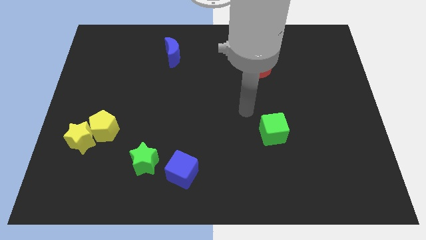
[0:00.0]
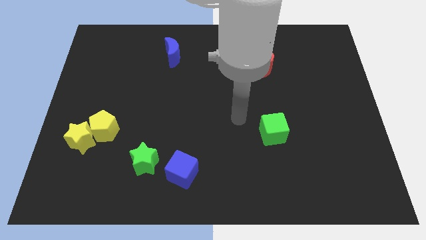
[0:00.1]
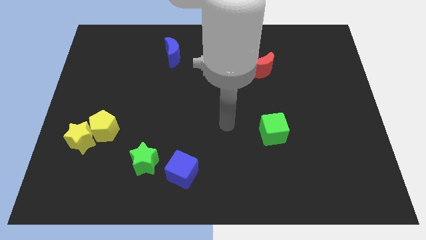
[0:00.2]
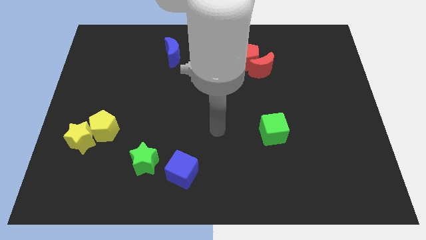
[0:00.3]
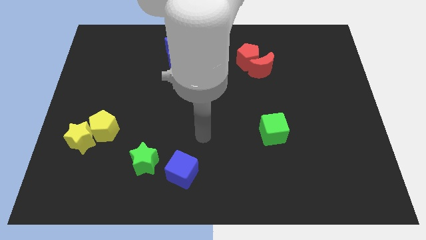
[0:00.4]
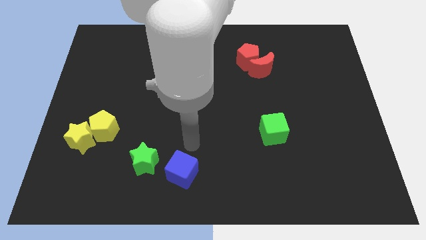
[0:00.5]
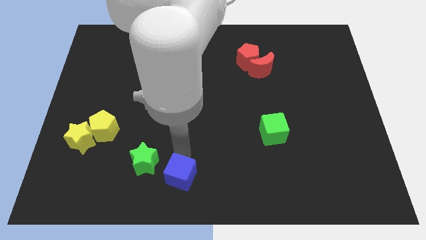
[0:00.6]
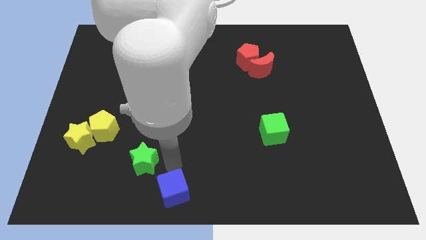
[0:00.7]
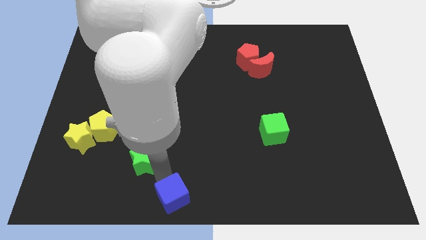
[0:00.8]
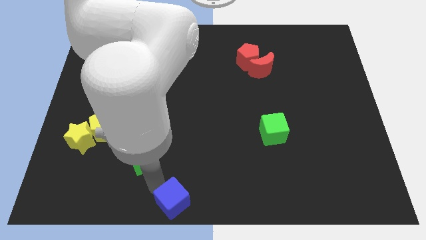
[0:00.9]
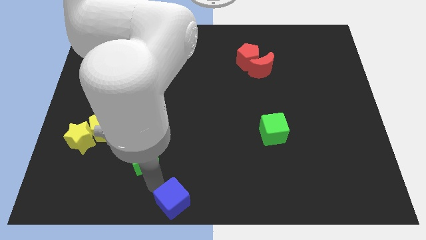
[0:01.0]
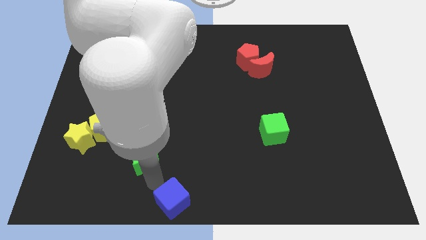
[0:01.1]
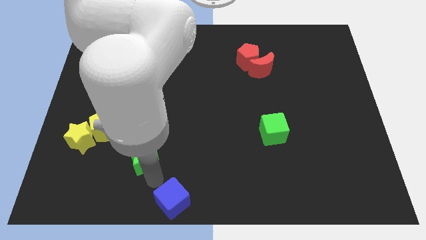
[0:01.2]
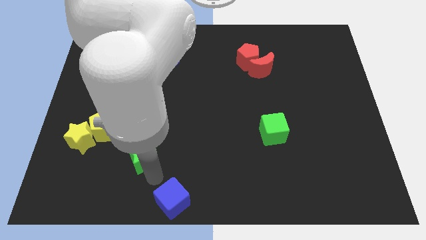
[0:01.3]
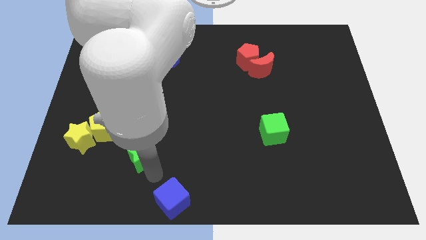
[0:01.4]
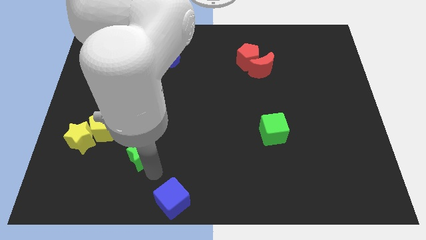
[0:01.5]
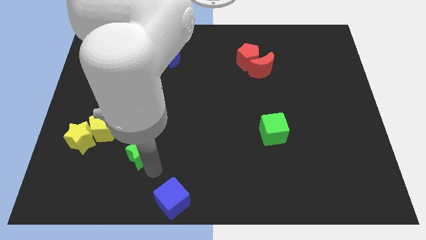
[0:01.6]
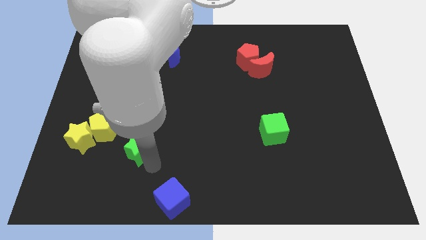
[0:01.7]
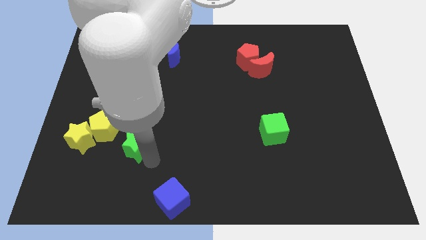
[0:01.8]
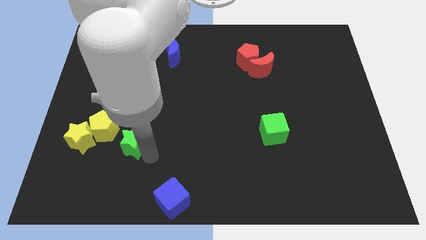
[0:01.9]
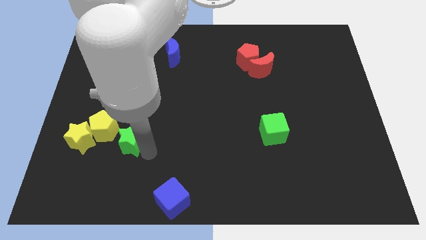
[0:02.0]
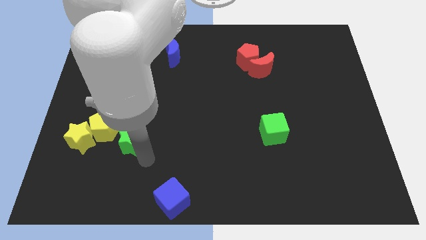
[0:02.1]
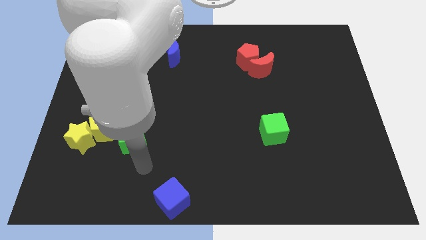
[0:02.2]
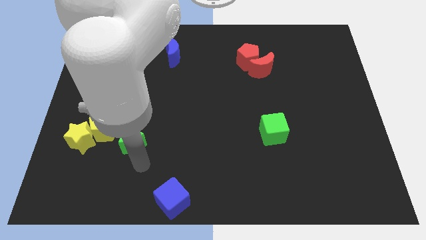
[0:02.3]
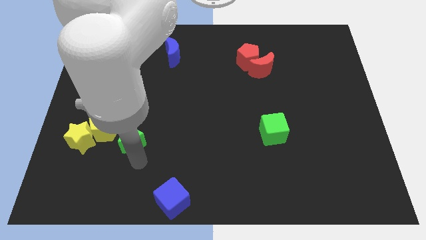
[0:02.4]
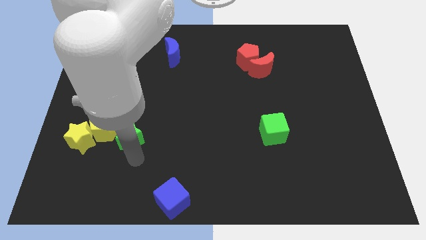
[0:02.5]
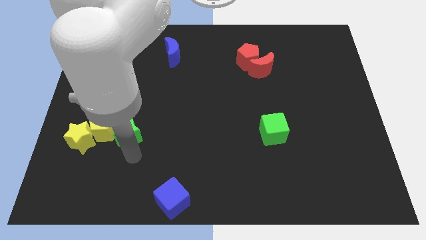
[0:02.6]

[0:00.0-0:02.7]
slightly slide the green star up and to the left diagonally

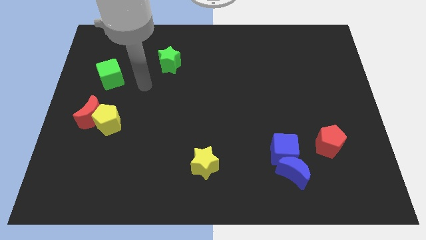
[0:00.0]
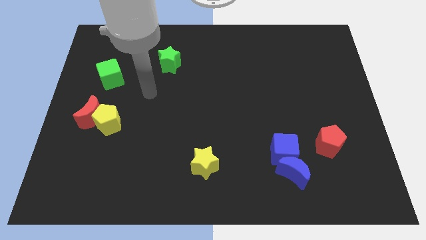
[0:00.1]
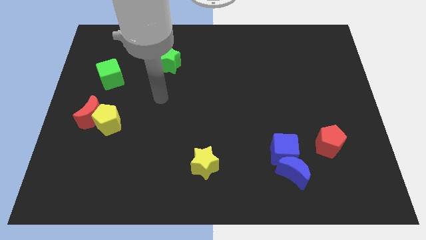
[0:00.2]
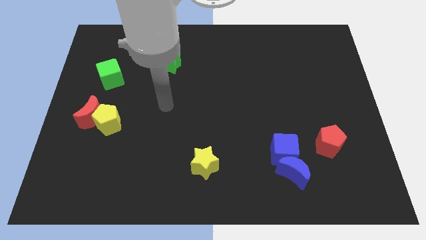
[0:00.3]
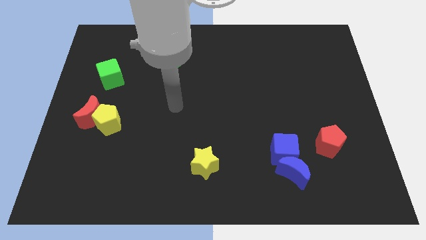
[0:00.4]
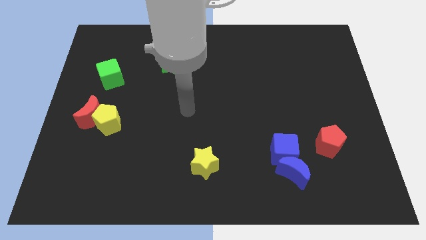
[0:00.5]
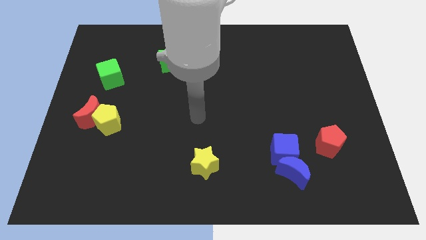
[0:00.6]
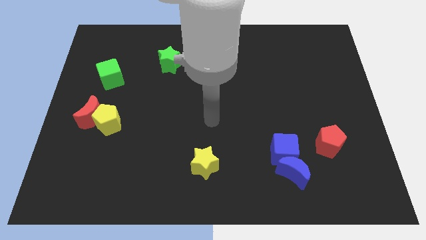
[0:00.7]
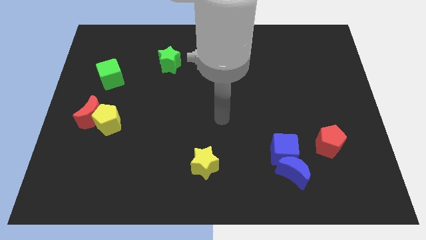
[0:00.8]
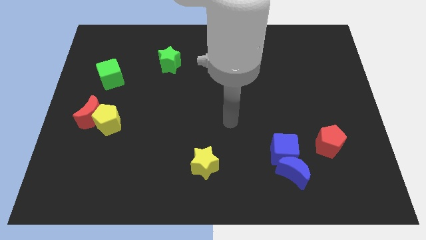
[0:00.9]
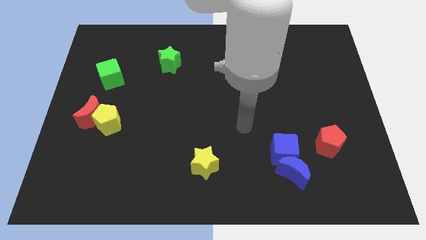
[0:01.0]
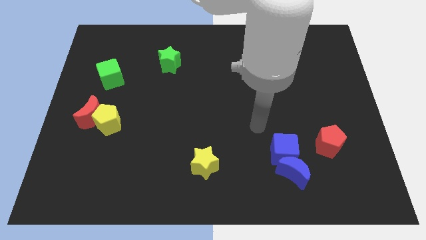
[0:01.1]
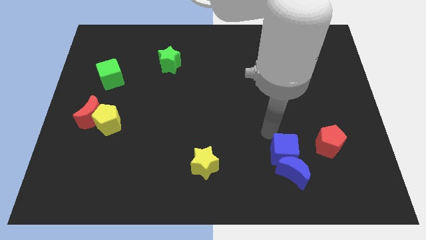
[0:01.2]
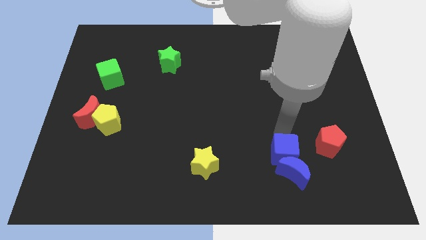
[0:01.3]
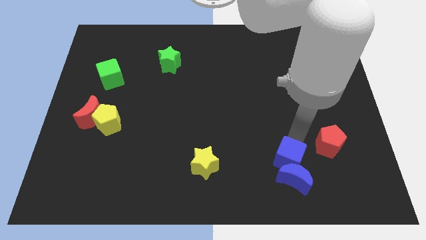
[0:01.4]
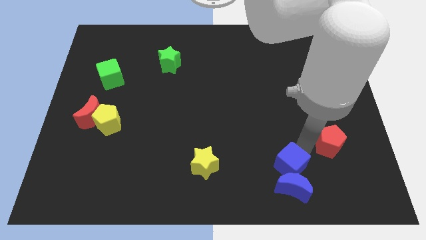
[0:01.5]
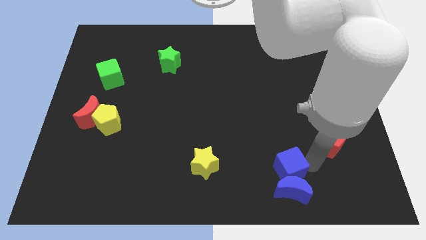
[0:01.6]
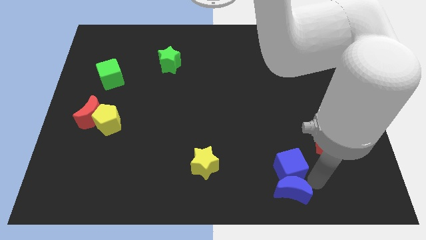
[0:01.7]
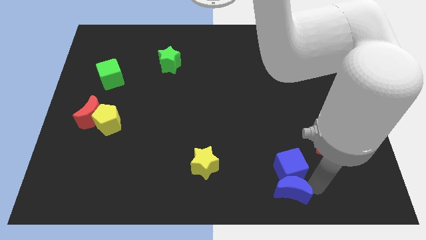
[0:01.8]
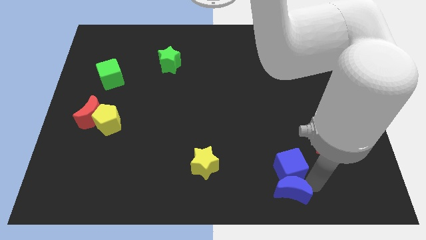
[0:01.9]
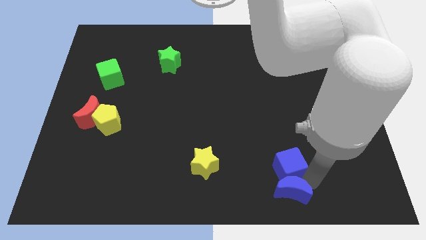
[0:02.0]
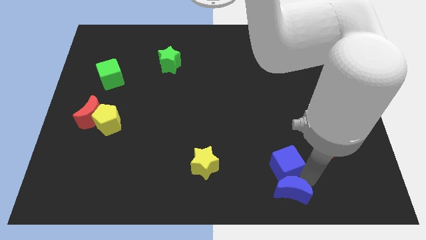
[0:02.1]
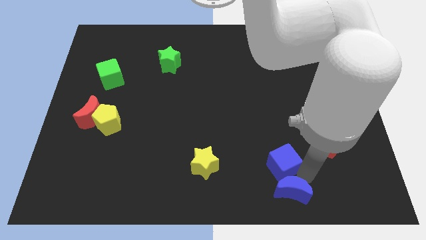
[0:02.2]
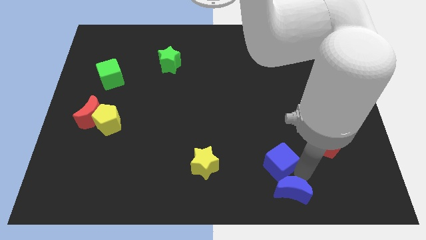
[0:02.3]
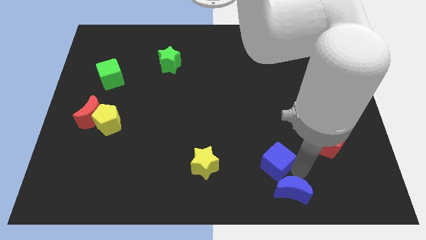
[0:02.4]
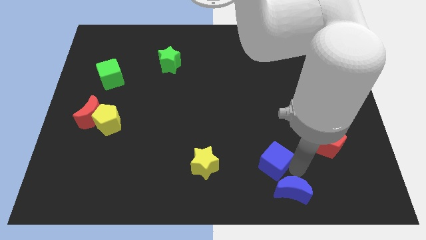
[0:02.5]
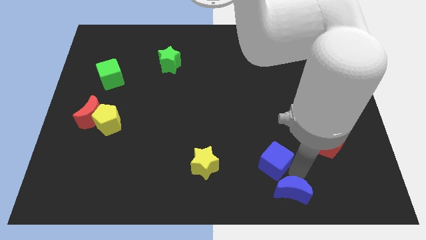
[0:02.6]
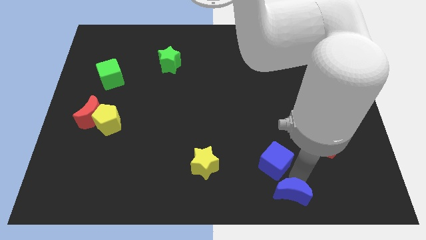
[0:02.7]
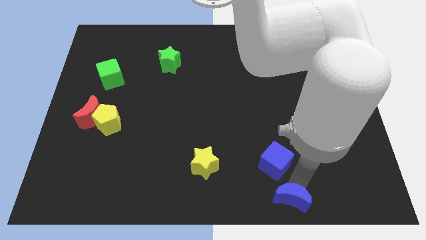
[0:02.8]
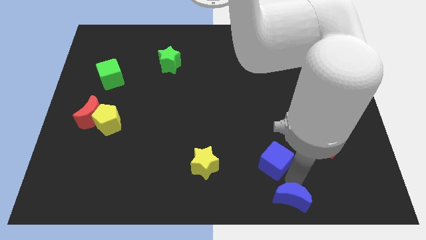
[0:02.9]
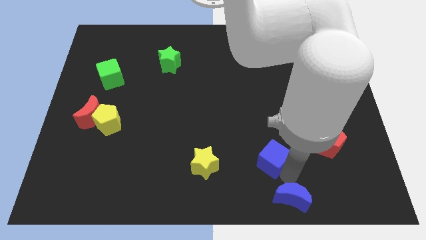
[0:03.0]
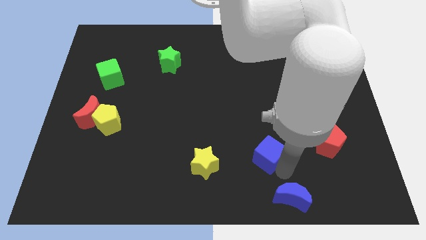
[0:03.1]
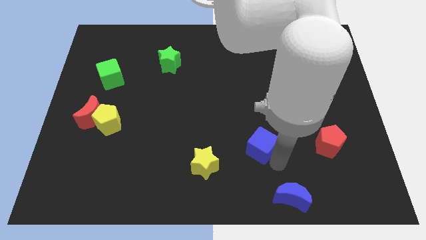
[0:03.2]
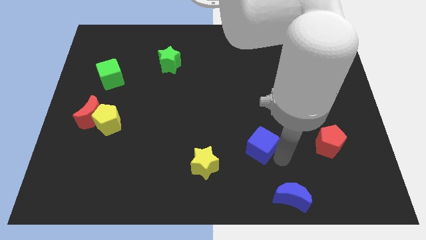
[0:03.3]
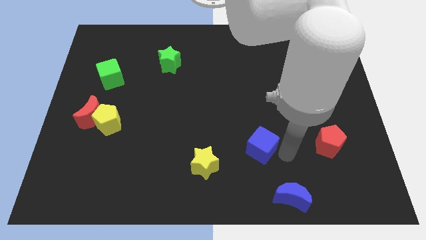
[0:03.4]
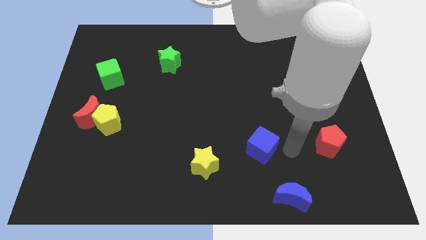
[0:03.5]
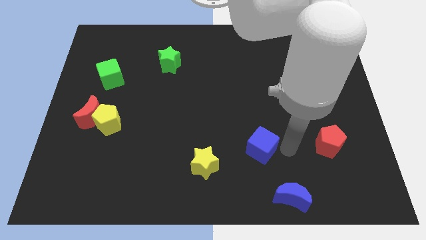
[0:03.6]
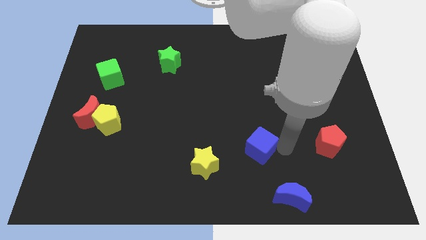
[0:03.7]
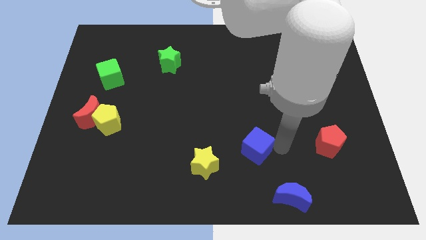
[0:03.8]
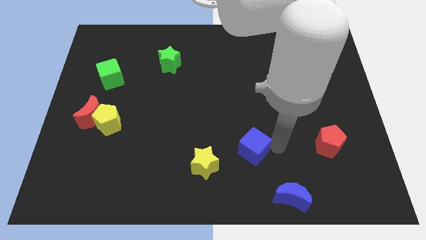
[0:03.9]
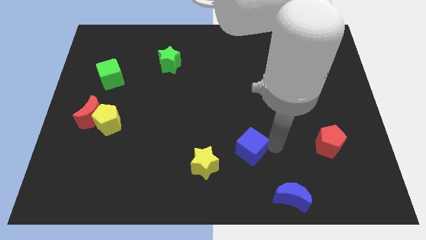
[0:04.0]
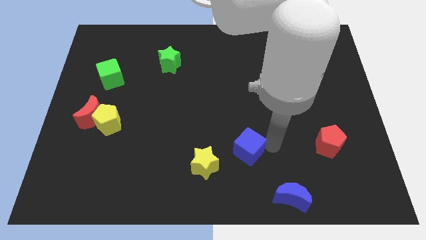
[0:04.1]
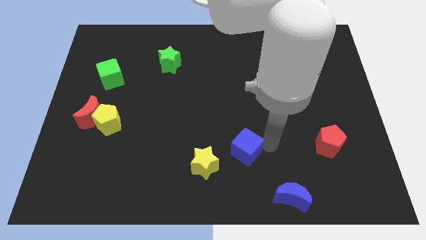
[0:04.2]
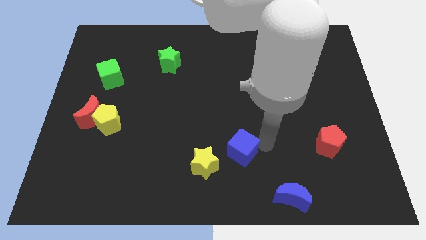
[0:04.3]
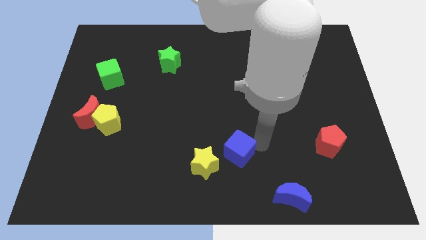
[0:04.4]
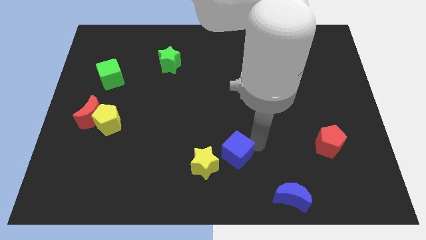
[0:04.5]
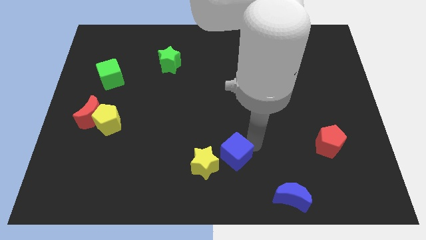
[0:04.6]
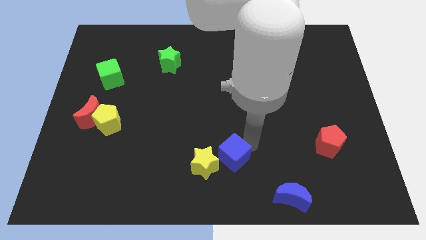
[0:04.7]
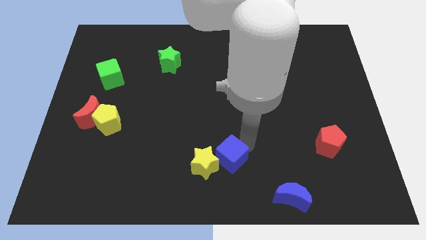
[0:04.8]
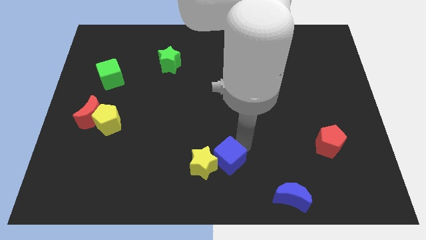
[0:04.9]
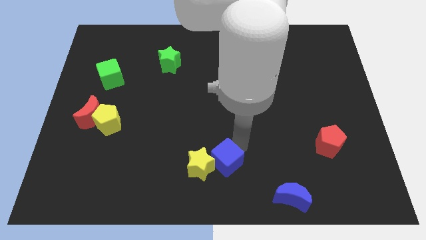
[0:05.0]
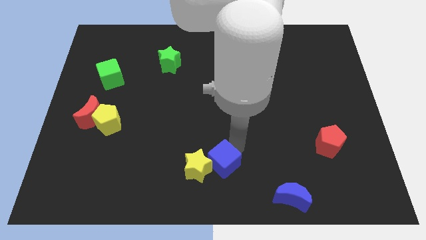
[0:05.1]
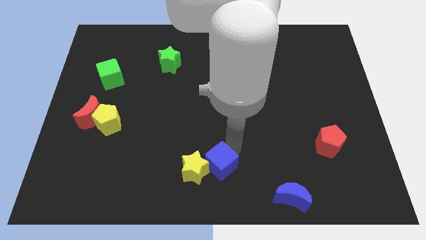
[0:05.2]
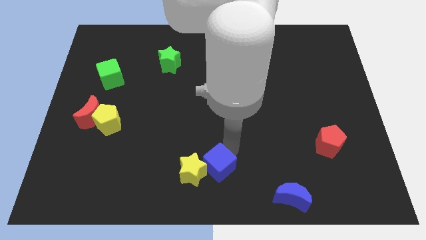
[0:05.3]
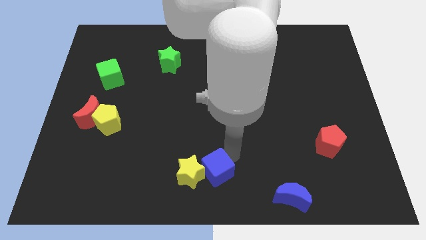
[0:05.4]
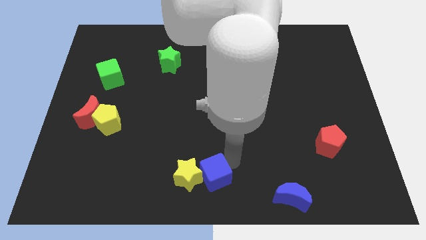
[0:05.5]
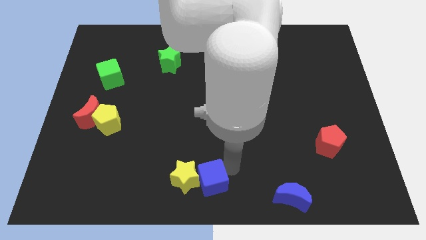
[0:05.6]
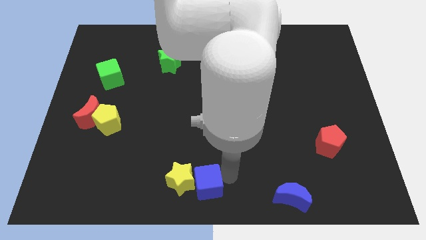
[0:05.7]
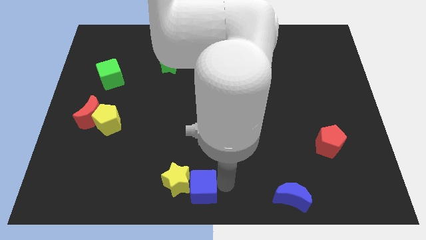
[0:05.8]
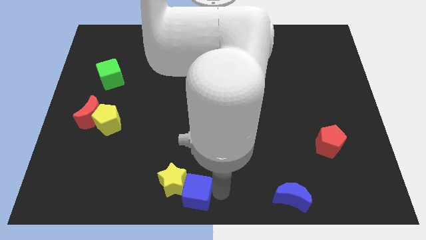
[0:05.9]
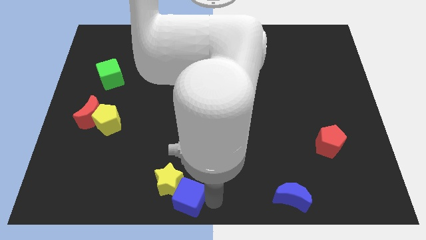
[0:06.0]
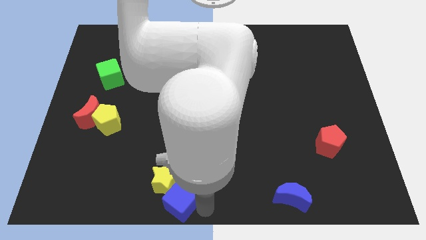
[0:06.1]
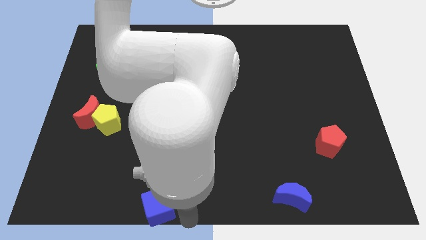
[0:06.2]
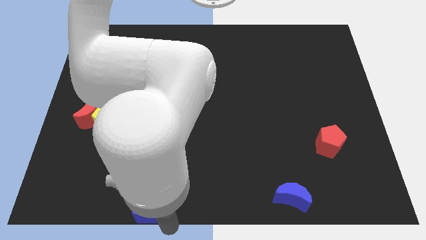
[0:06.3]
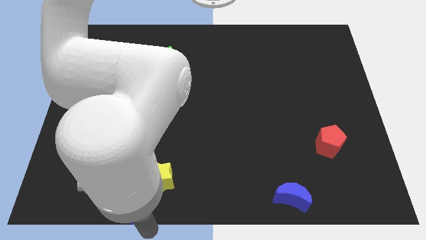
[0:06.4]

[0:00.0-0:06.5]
move the blue cube to the left
